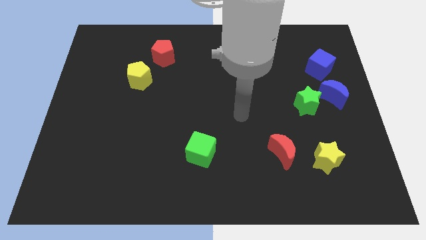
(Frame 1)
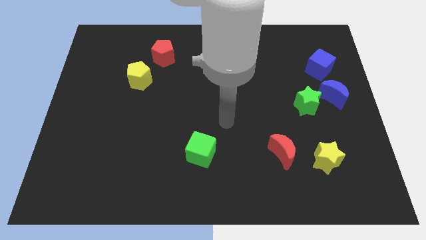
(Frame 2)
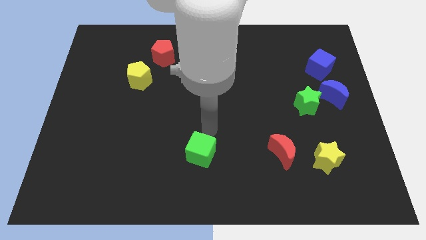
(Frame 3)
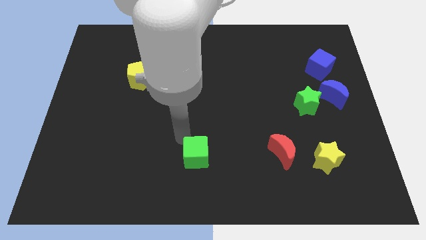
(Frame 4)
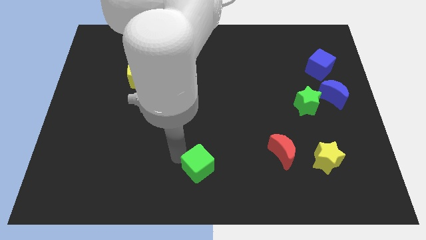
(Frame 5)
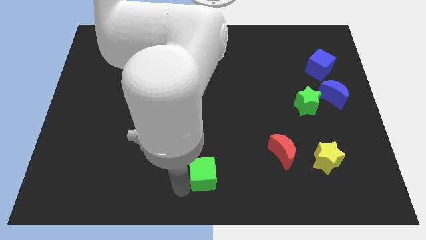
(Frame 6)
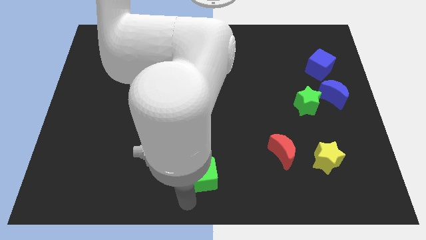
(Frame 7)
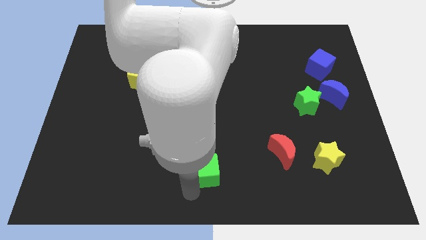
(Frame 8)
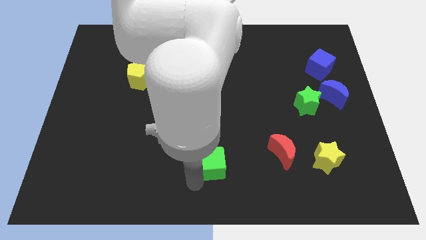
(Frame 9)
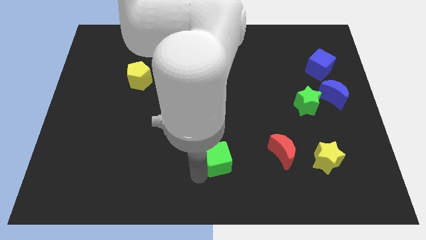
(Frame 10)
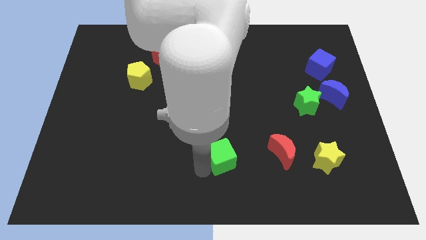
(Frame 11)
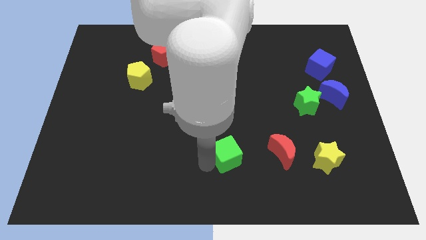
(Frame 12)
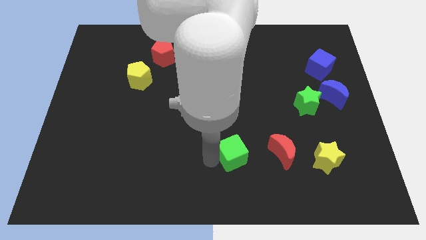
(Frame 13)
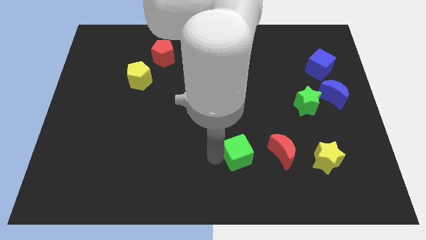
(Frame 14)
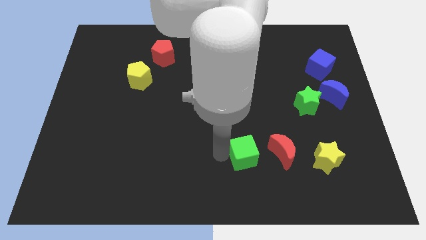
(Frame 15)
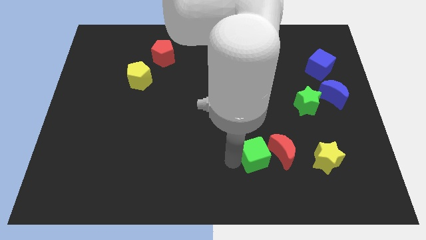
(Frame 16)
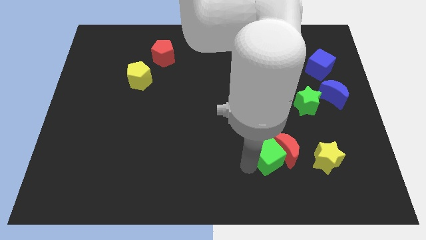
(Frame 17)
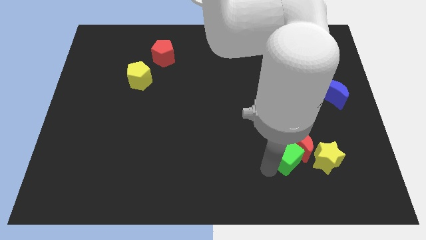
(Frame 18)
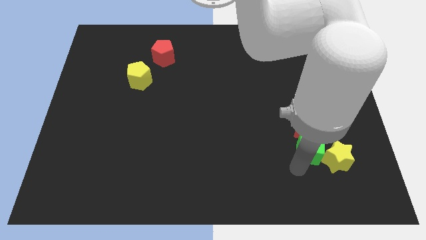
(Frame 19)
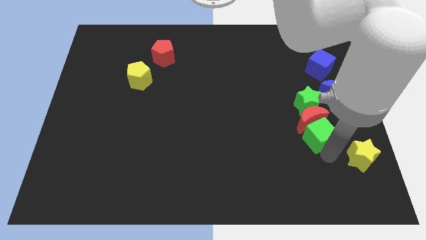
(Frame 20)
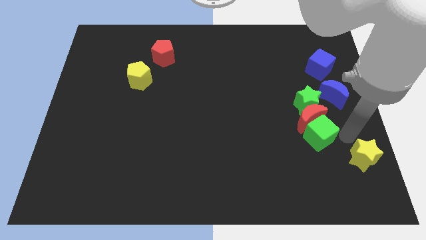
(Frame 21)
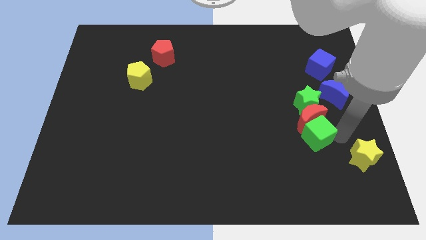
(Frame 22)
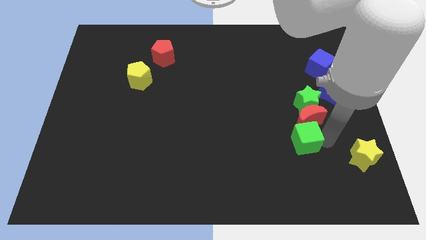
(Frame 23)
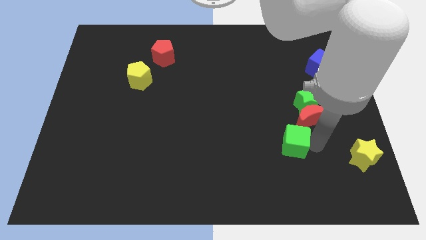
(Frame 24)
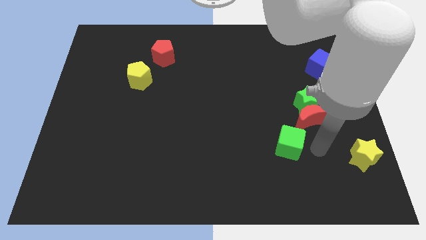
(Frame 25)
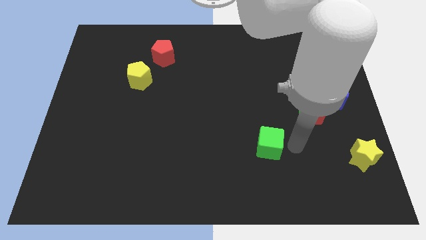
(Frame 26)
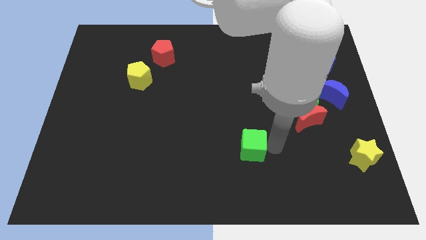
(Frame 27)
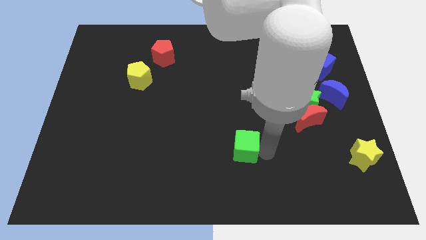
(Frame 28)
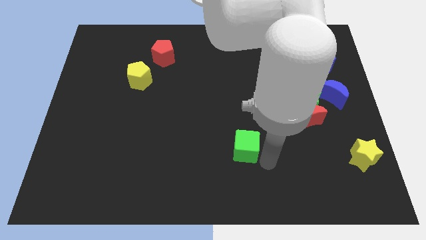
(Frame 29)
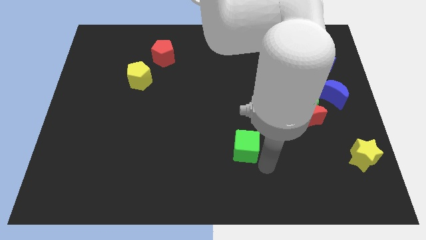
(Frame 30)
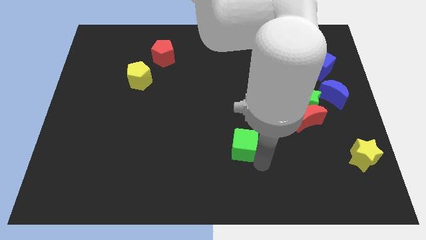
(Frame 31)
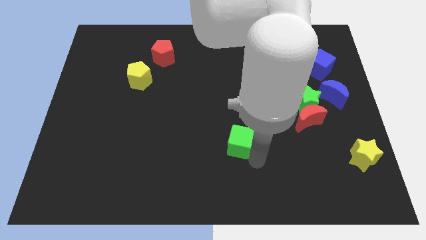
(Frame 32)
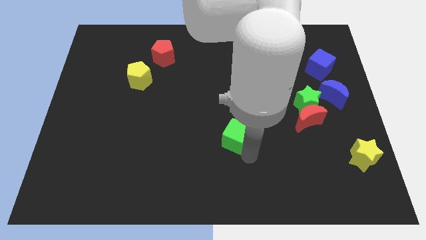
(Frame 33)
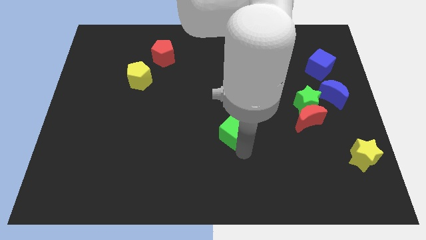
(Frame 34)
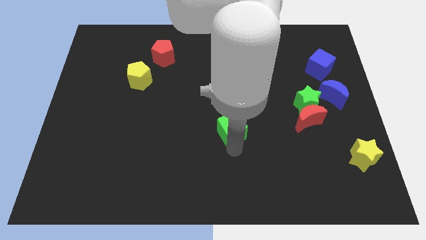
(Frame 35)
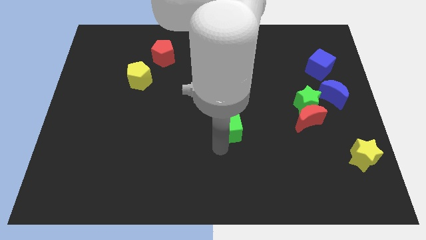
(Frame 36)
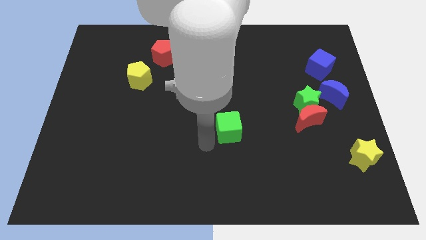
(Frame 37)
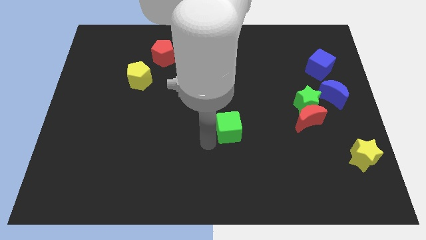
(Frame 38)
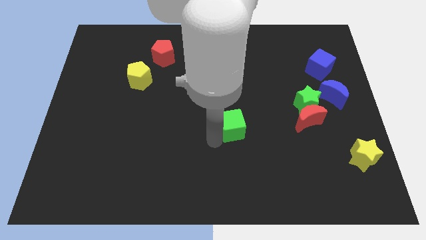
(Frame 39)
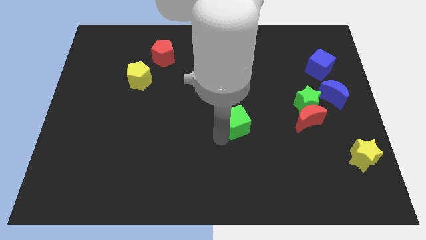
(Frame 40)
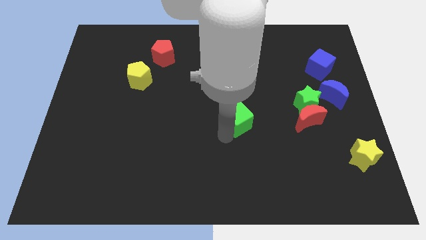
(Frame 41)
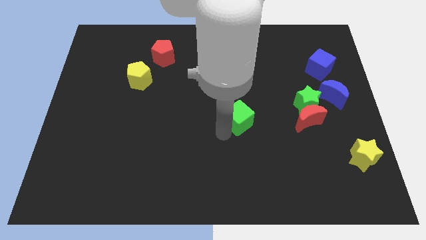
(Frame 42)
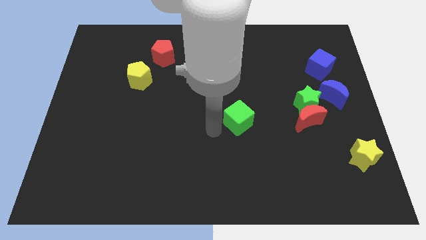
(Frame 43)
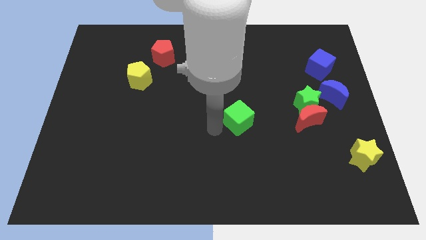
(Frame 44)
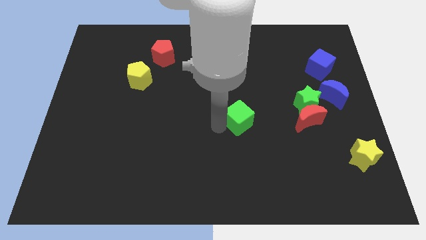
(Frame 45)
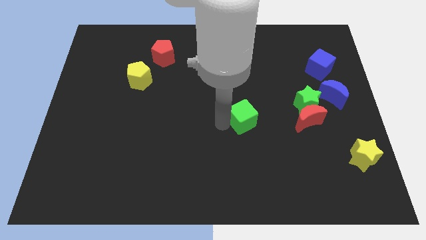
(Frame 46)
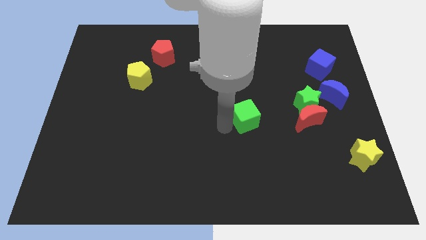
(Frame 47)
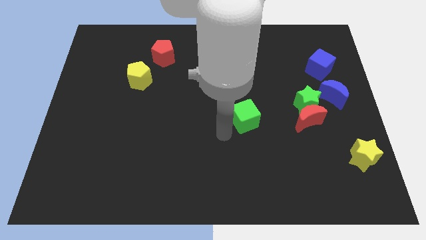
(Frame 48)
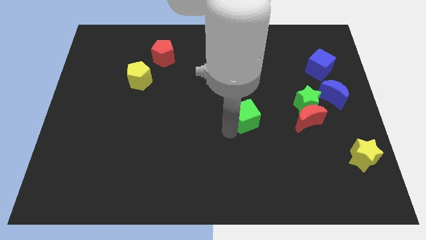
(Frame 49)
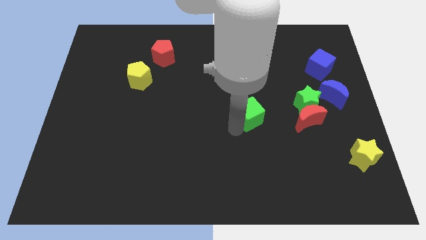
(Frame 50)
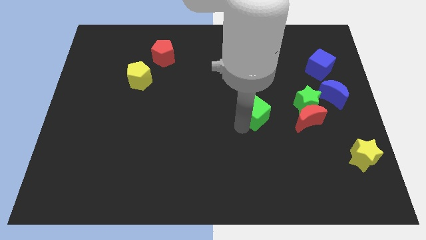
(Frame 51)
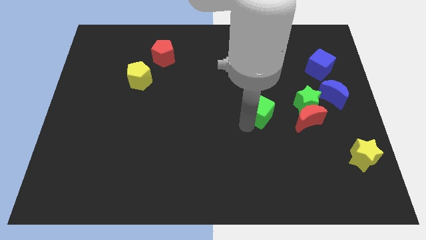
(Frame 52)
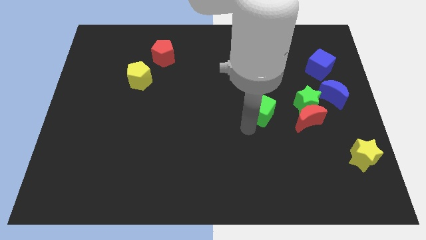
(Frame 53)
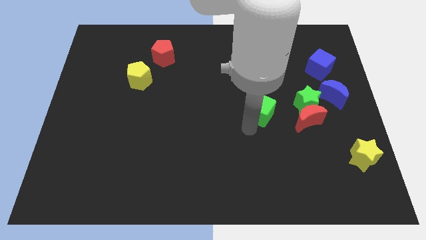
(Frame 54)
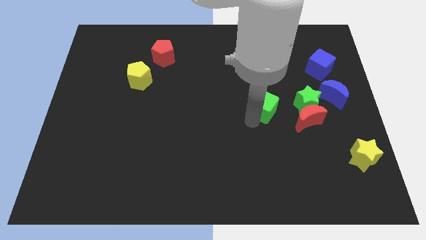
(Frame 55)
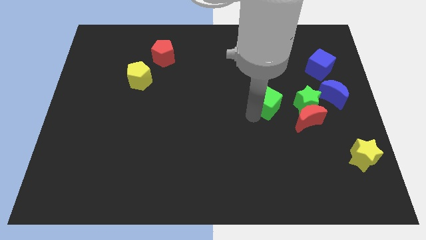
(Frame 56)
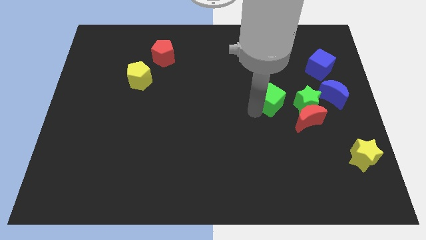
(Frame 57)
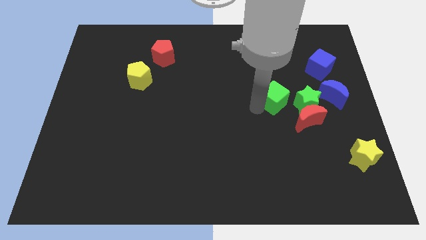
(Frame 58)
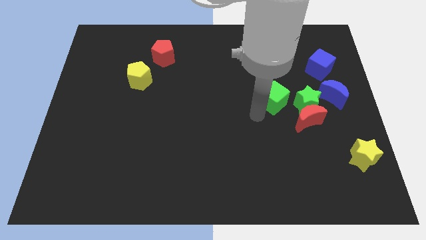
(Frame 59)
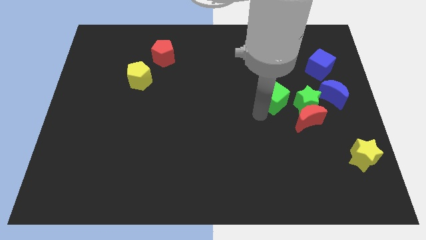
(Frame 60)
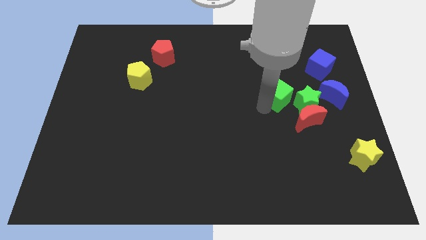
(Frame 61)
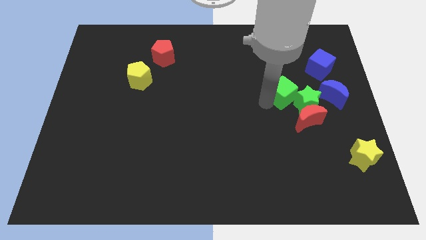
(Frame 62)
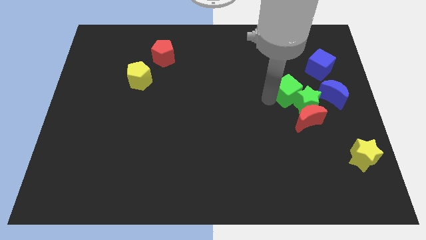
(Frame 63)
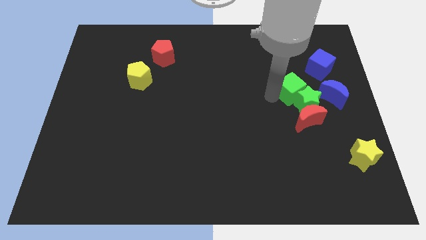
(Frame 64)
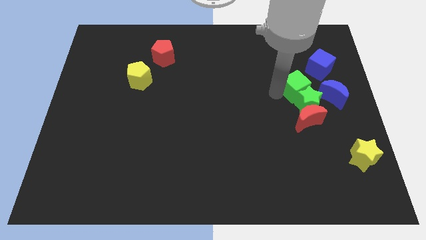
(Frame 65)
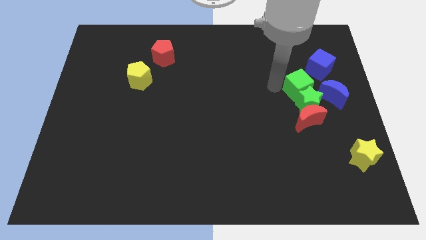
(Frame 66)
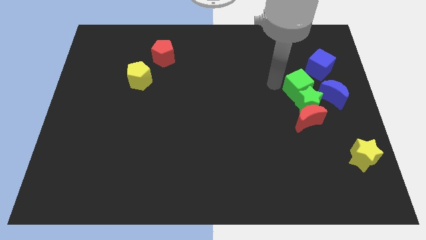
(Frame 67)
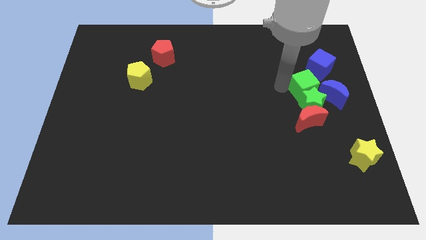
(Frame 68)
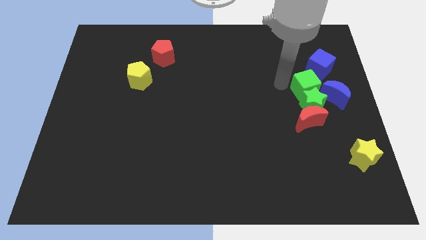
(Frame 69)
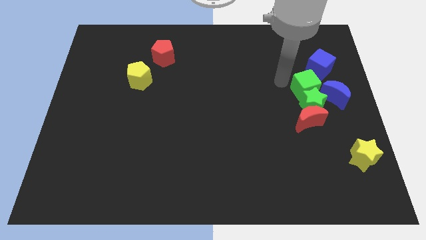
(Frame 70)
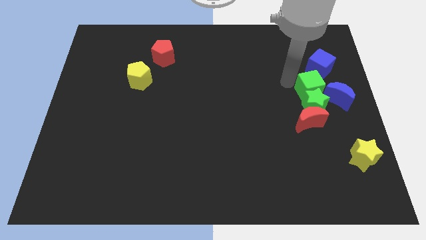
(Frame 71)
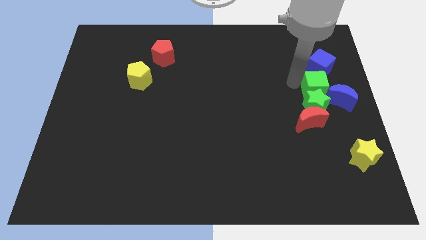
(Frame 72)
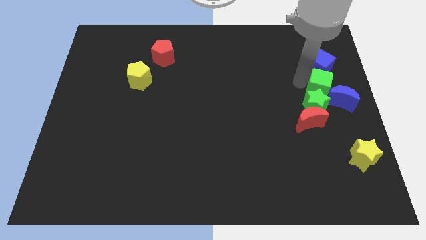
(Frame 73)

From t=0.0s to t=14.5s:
push the green cube to the blue moon

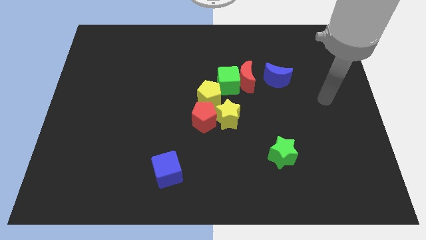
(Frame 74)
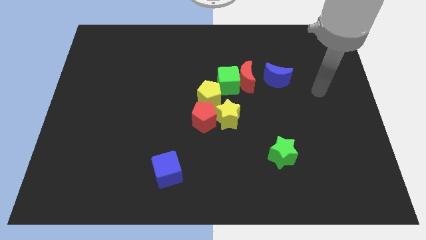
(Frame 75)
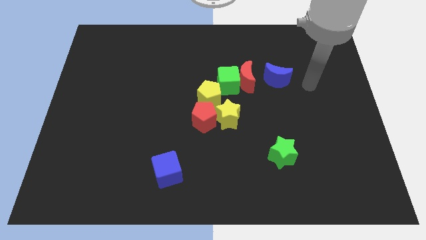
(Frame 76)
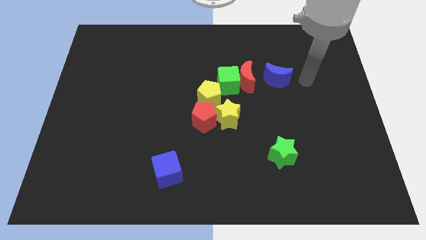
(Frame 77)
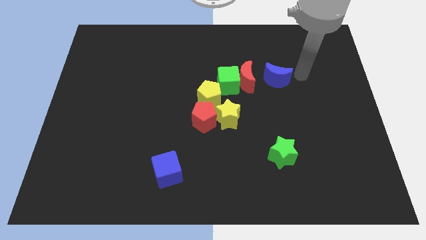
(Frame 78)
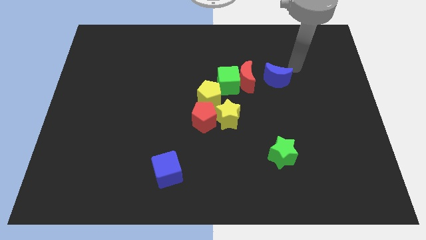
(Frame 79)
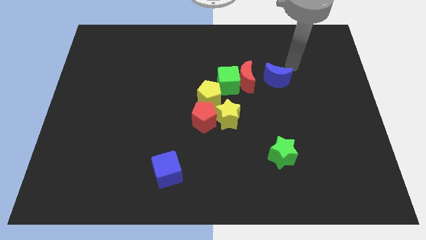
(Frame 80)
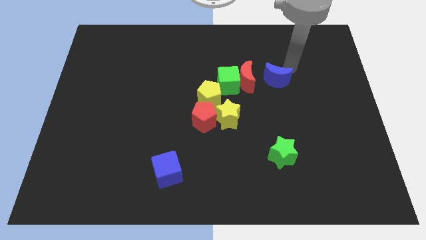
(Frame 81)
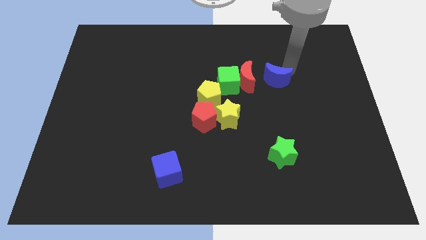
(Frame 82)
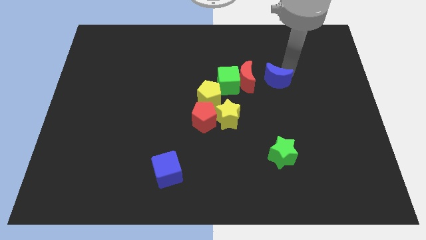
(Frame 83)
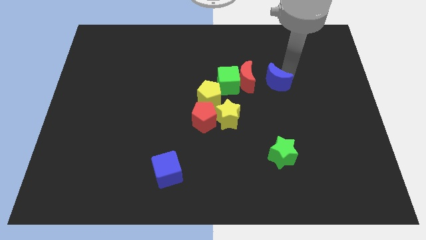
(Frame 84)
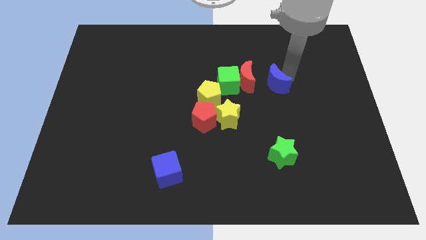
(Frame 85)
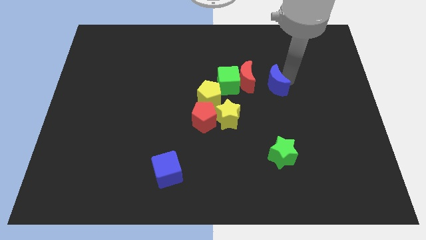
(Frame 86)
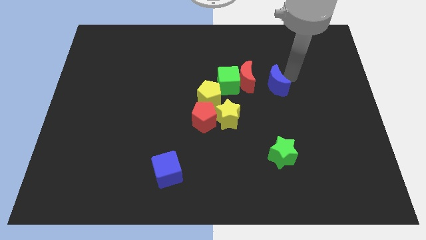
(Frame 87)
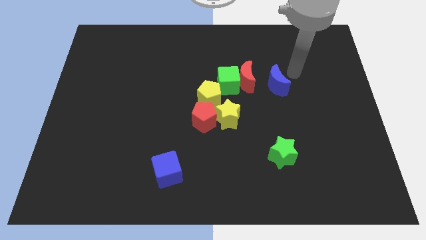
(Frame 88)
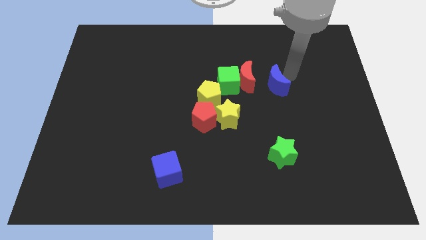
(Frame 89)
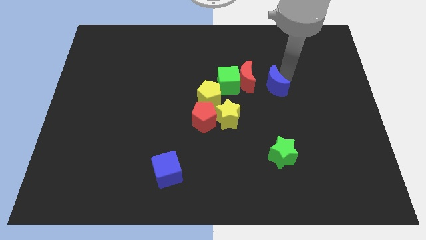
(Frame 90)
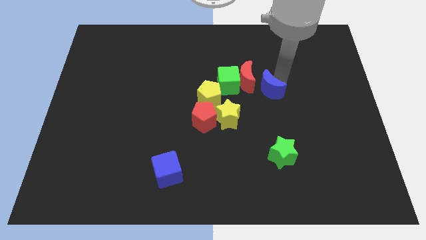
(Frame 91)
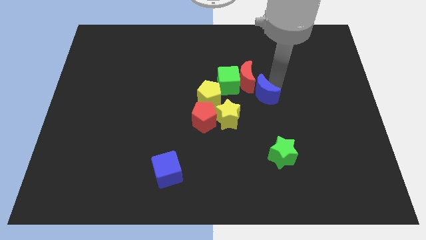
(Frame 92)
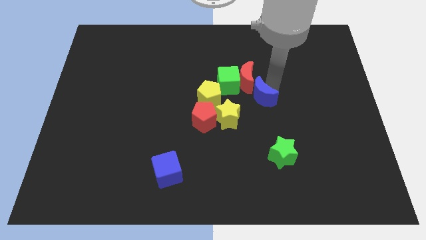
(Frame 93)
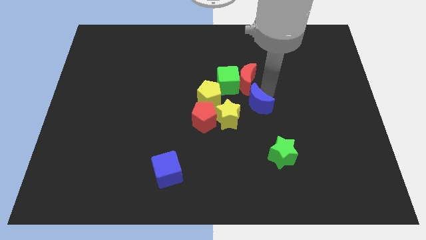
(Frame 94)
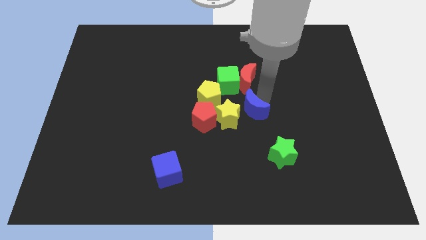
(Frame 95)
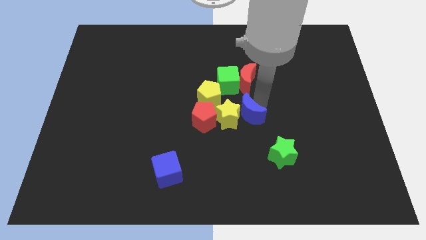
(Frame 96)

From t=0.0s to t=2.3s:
move the blue moon towards the yellow star
